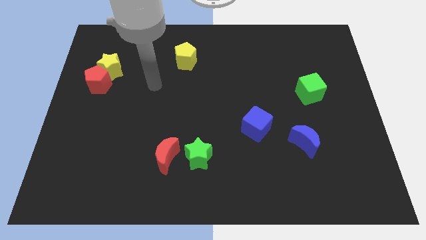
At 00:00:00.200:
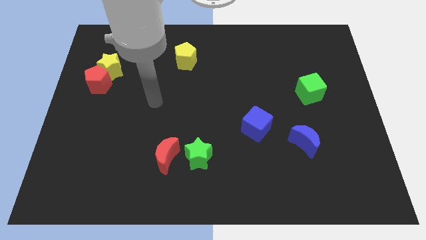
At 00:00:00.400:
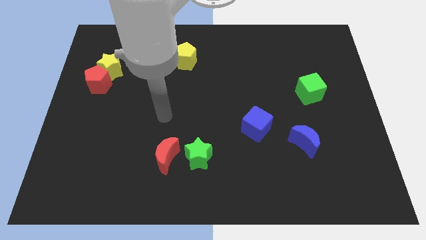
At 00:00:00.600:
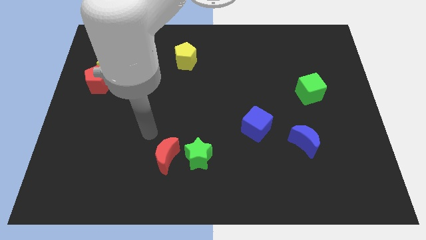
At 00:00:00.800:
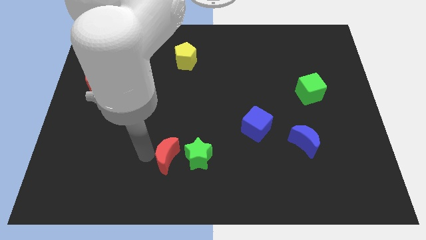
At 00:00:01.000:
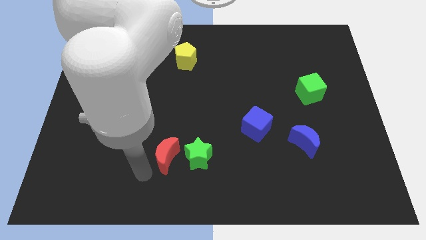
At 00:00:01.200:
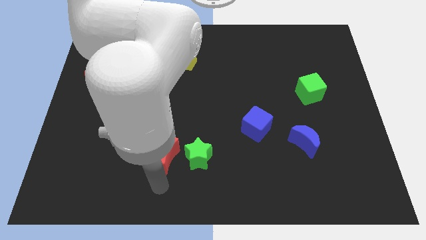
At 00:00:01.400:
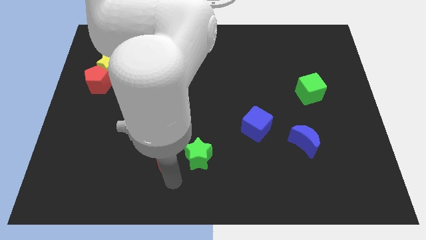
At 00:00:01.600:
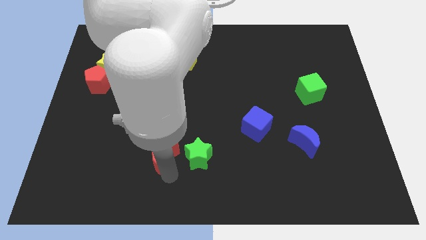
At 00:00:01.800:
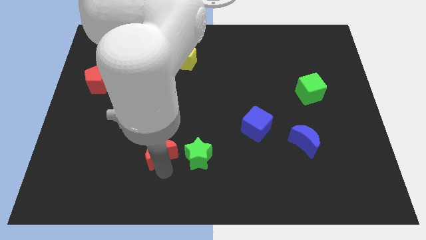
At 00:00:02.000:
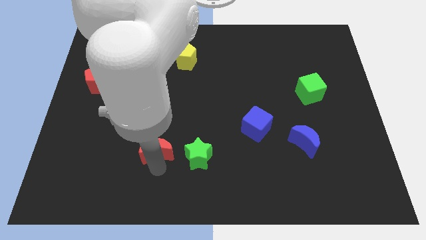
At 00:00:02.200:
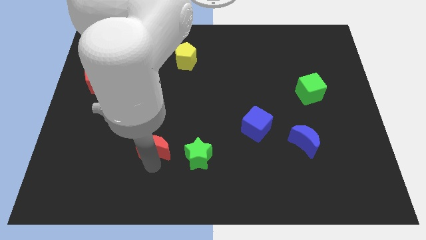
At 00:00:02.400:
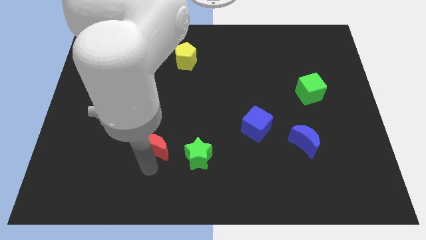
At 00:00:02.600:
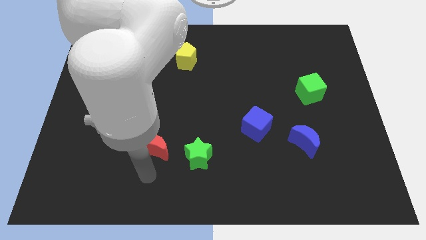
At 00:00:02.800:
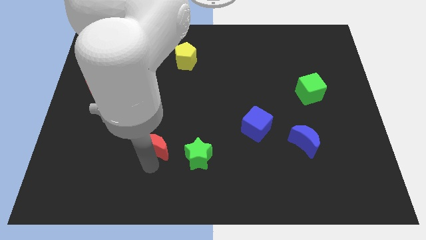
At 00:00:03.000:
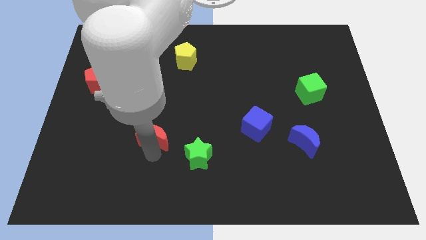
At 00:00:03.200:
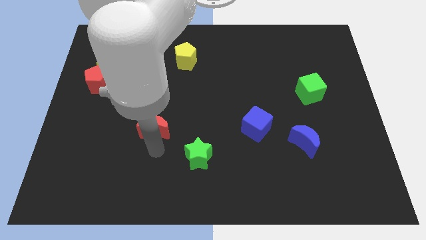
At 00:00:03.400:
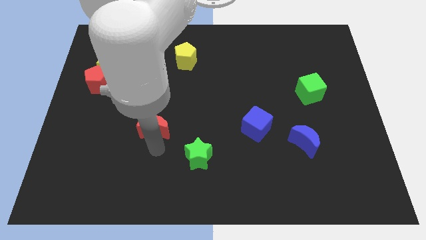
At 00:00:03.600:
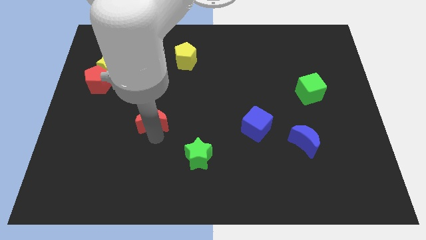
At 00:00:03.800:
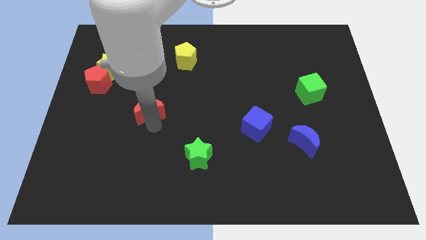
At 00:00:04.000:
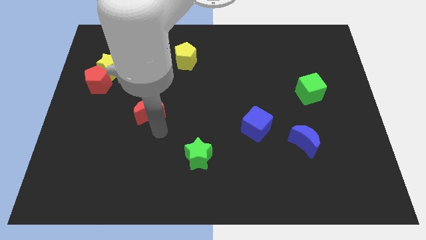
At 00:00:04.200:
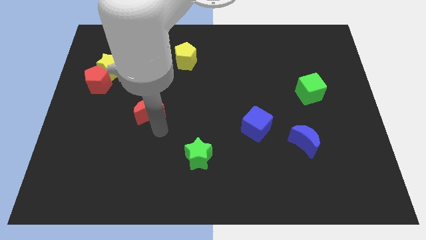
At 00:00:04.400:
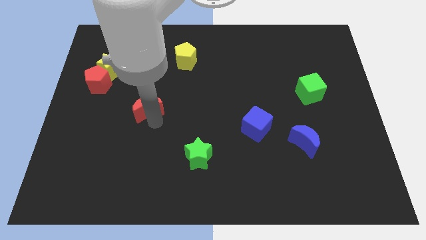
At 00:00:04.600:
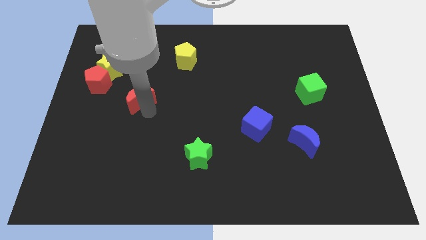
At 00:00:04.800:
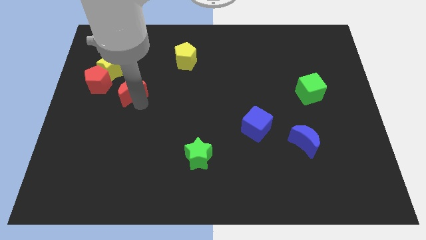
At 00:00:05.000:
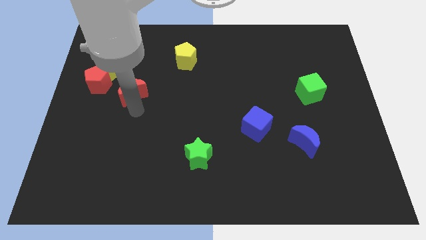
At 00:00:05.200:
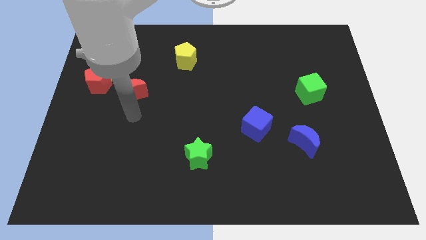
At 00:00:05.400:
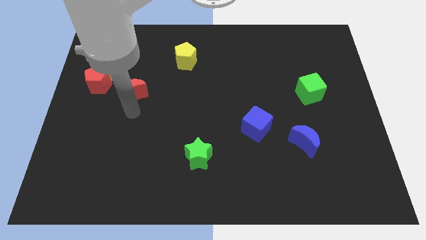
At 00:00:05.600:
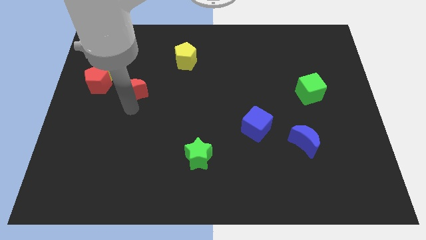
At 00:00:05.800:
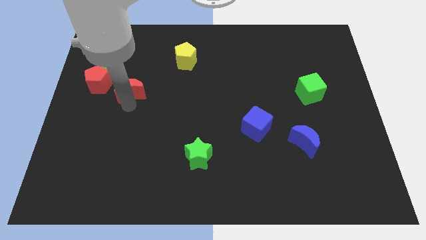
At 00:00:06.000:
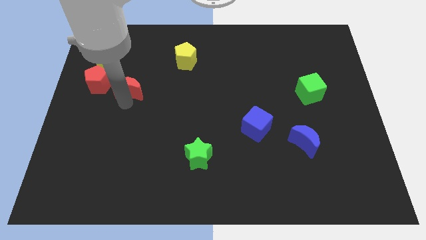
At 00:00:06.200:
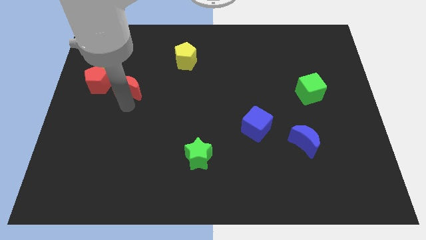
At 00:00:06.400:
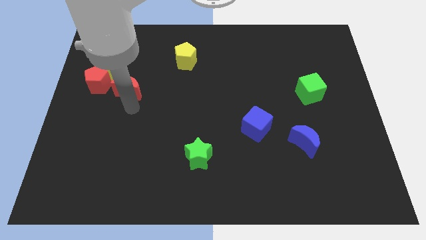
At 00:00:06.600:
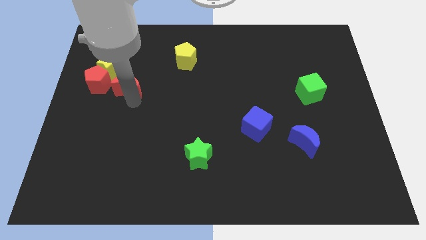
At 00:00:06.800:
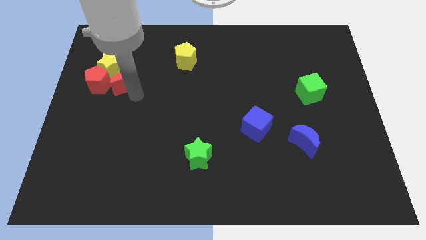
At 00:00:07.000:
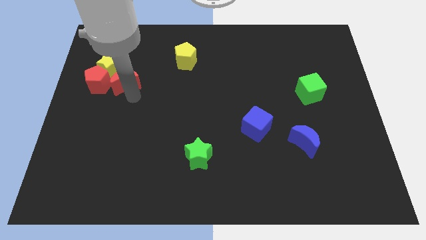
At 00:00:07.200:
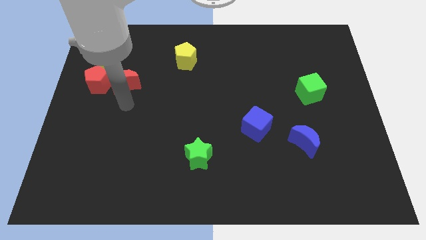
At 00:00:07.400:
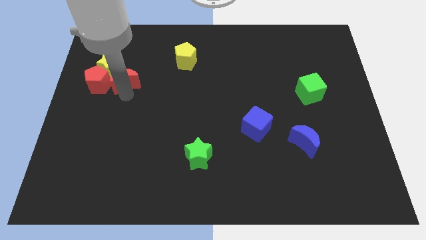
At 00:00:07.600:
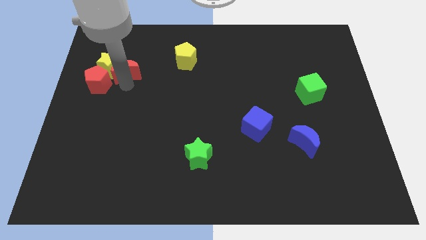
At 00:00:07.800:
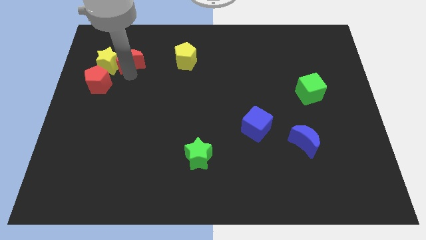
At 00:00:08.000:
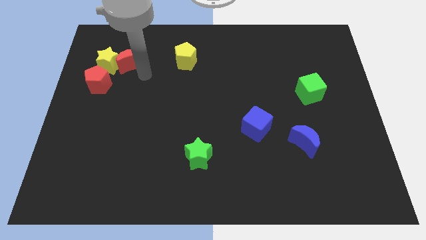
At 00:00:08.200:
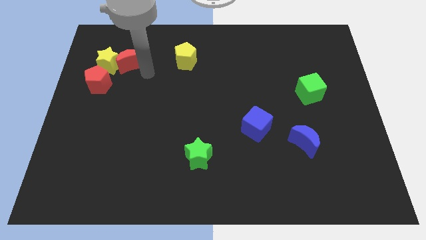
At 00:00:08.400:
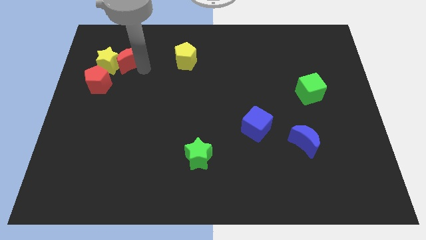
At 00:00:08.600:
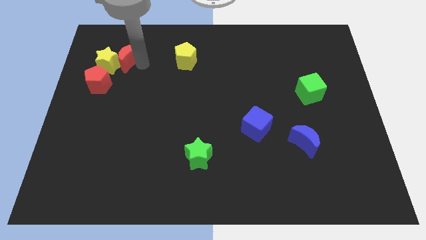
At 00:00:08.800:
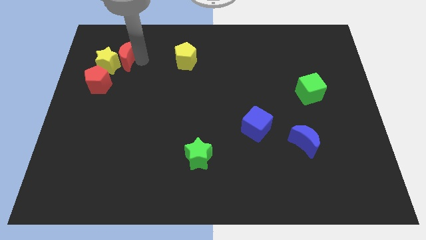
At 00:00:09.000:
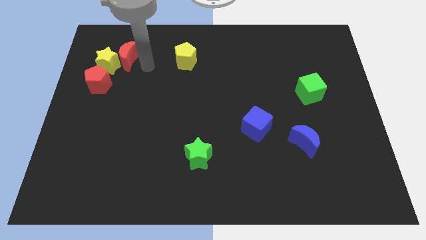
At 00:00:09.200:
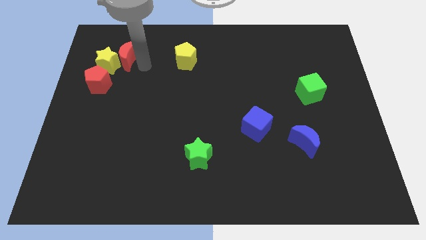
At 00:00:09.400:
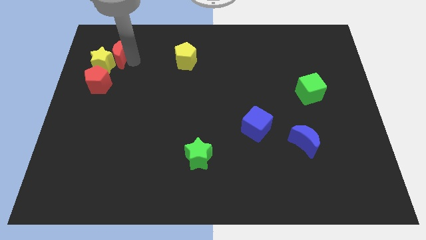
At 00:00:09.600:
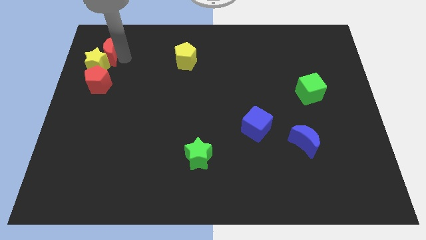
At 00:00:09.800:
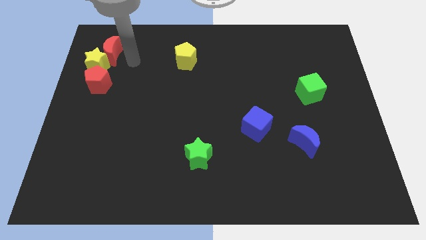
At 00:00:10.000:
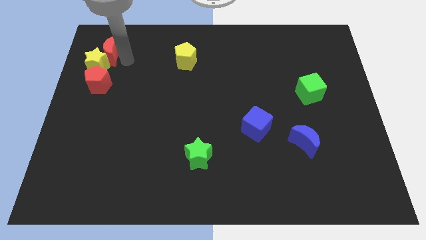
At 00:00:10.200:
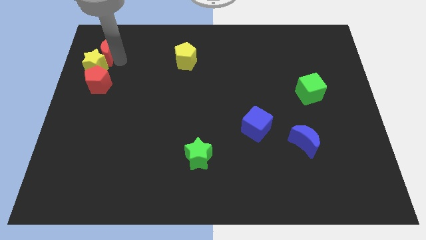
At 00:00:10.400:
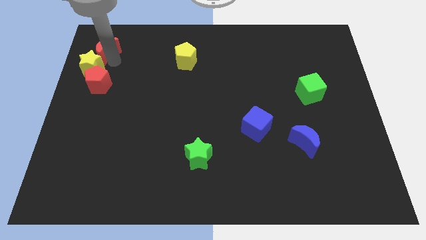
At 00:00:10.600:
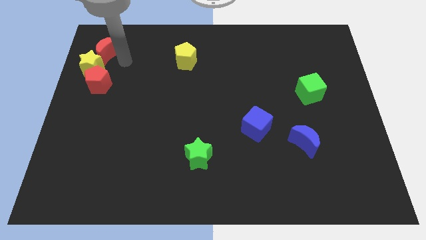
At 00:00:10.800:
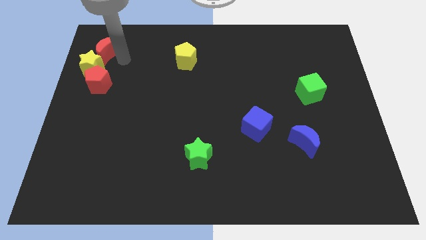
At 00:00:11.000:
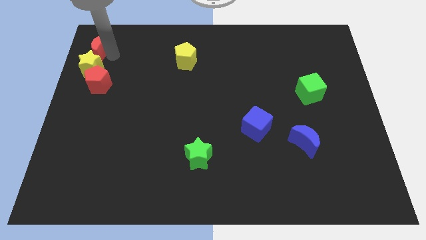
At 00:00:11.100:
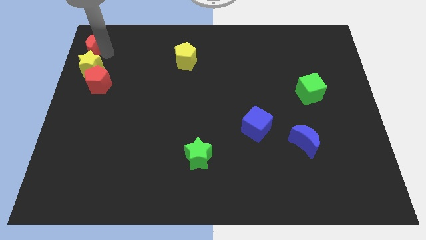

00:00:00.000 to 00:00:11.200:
push the red moon to the upper left corner
